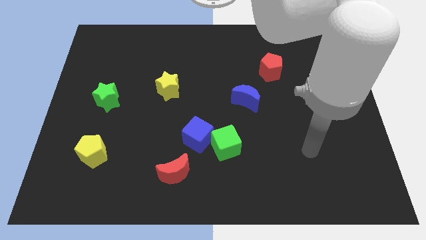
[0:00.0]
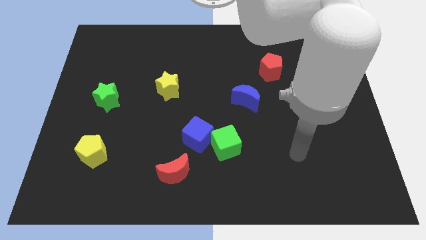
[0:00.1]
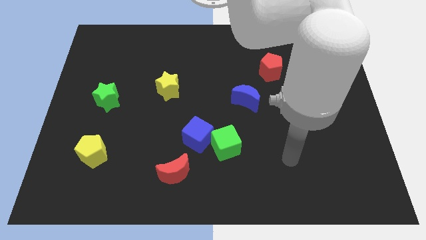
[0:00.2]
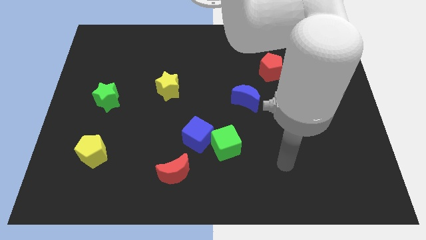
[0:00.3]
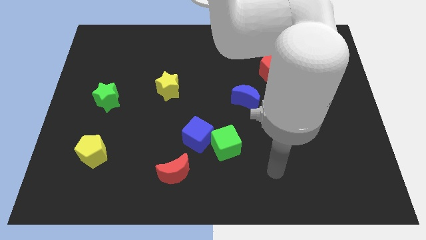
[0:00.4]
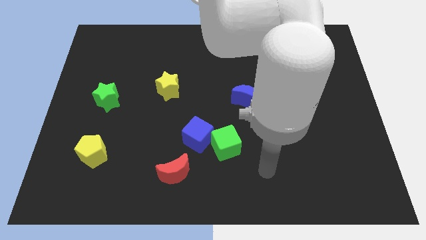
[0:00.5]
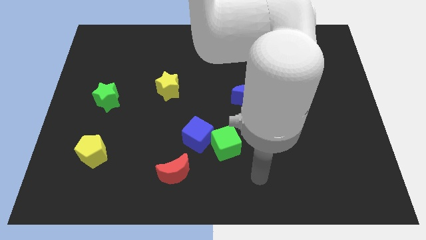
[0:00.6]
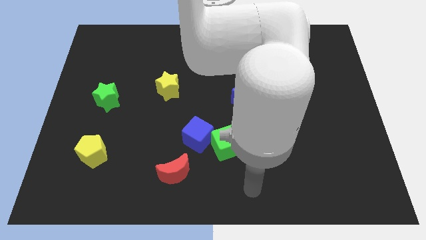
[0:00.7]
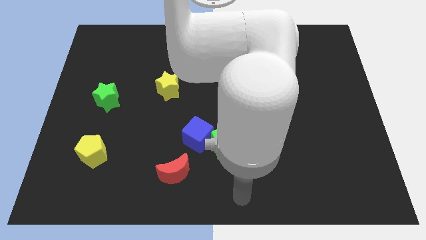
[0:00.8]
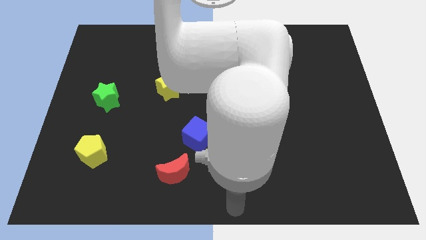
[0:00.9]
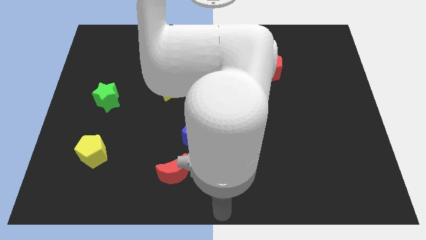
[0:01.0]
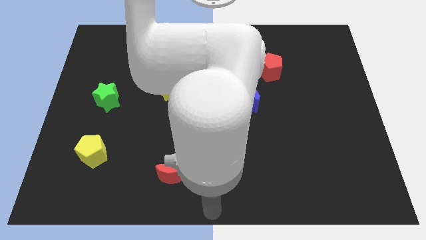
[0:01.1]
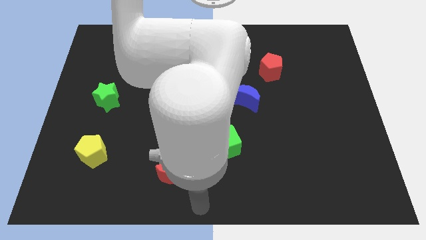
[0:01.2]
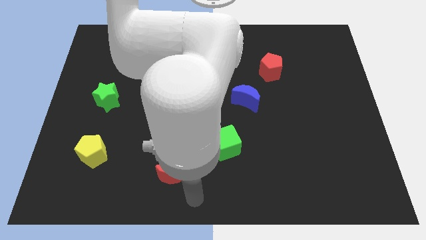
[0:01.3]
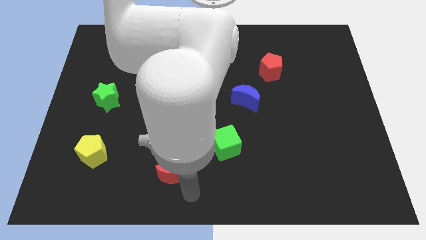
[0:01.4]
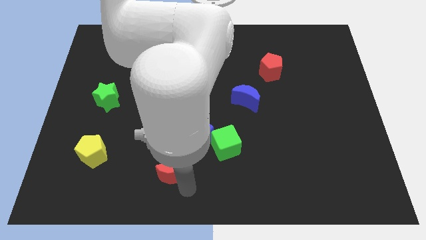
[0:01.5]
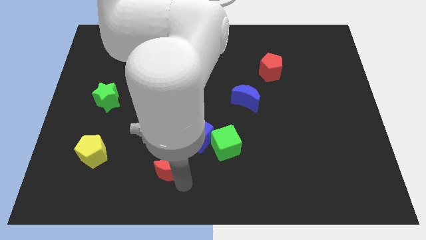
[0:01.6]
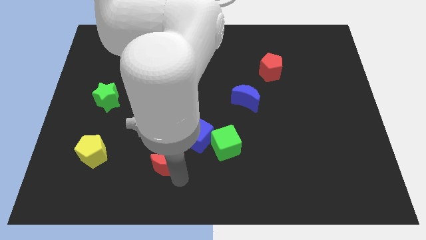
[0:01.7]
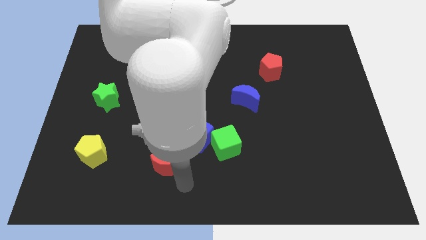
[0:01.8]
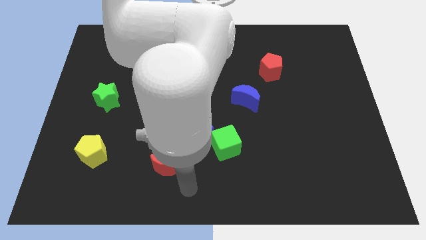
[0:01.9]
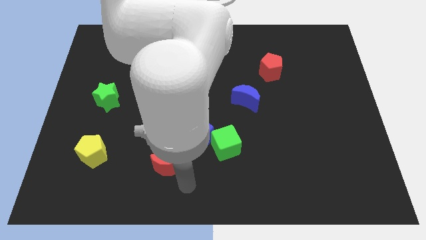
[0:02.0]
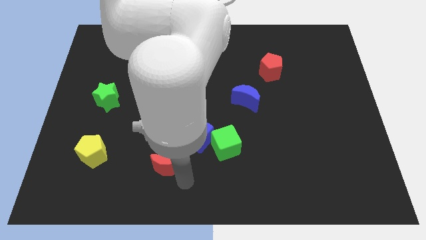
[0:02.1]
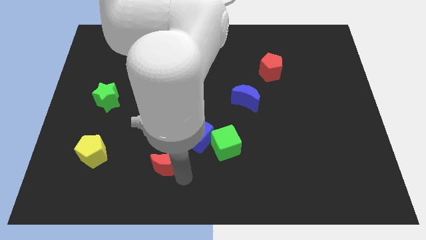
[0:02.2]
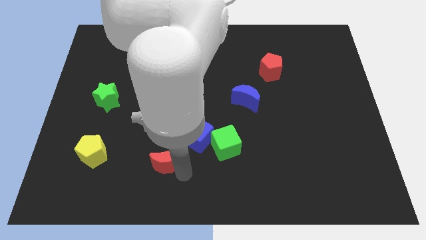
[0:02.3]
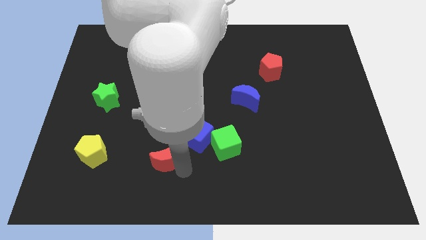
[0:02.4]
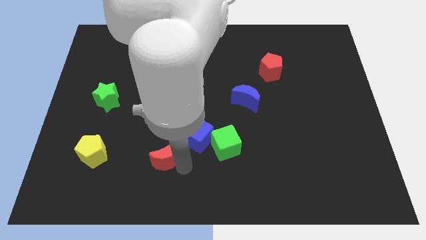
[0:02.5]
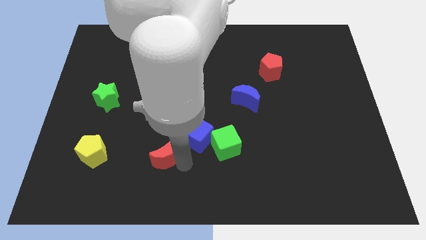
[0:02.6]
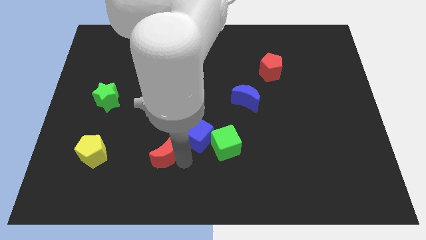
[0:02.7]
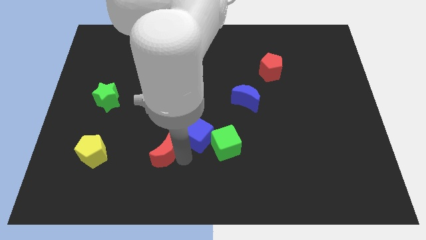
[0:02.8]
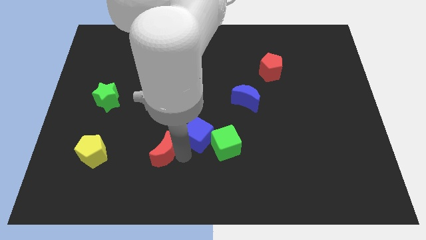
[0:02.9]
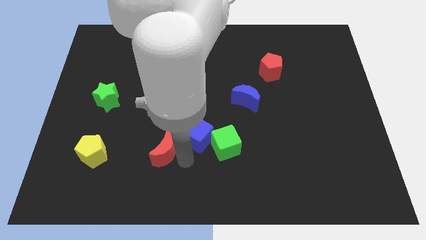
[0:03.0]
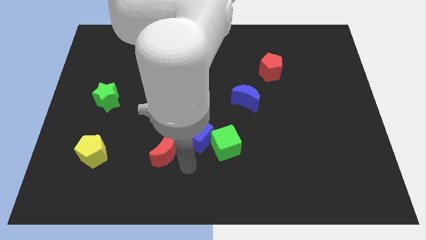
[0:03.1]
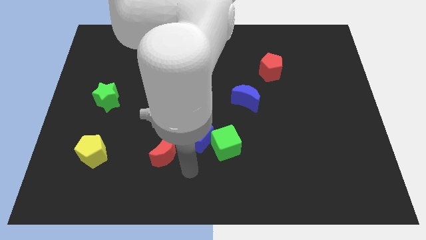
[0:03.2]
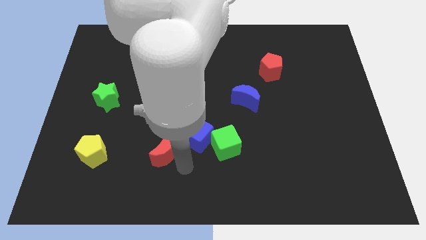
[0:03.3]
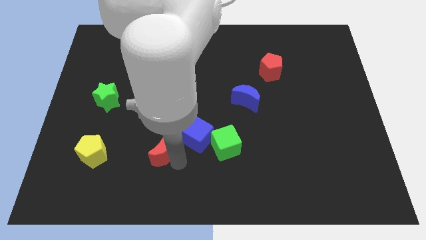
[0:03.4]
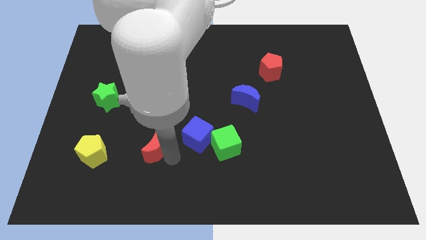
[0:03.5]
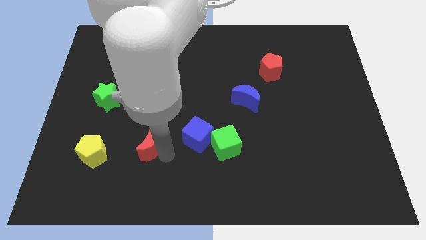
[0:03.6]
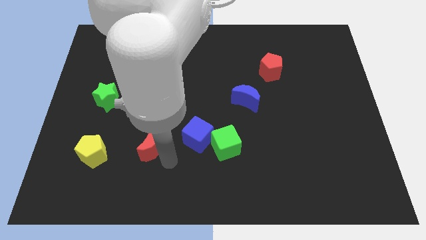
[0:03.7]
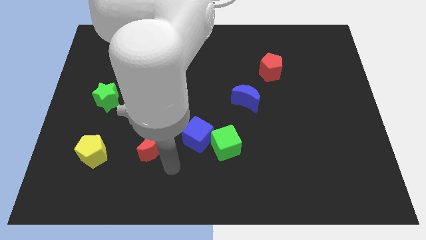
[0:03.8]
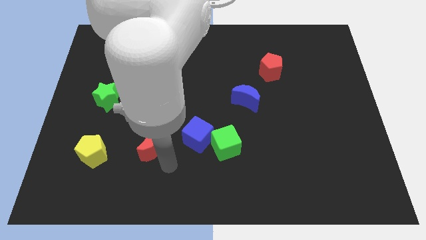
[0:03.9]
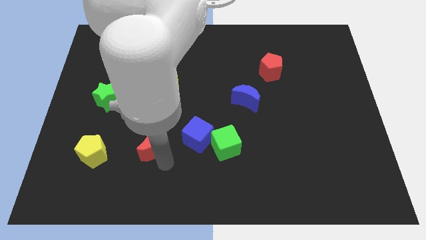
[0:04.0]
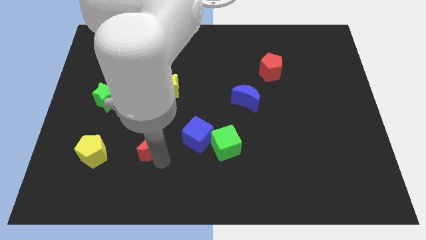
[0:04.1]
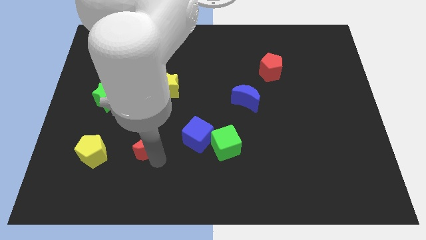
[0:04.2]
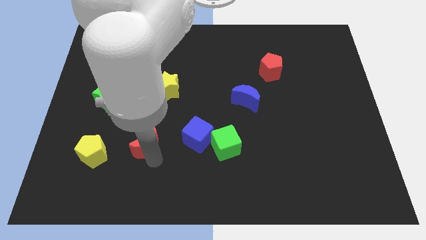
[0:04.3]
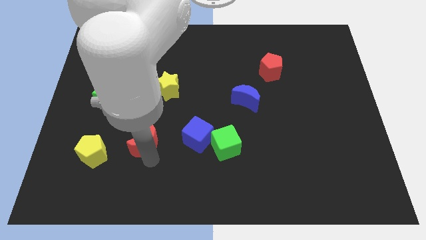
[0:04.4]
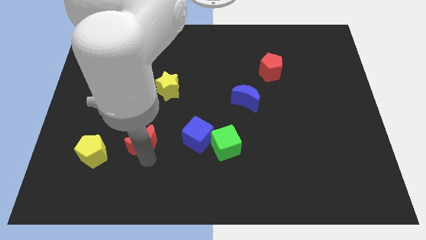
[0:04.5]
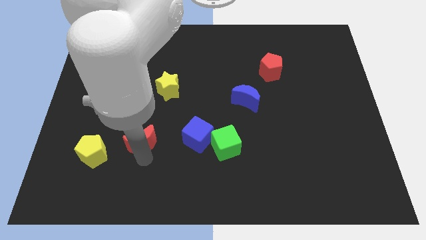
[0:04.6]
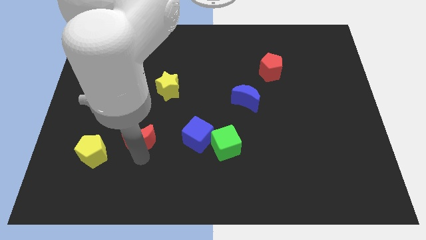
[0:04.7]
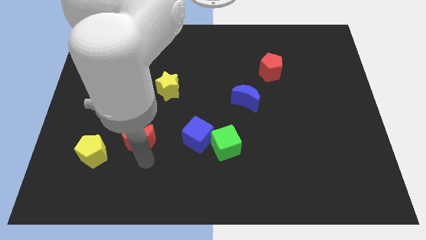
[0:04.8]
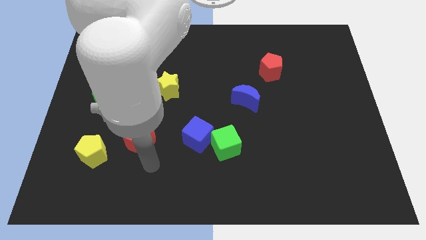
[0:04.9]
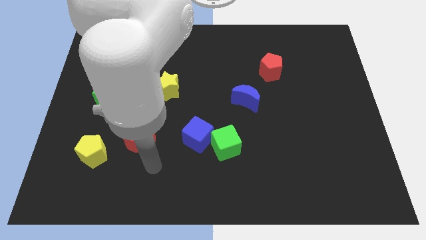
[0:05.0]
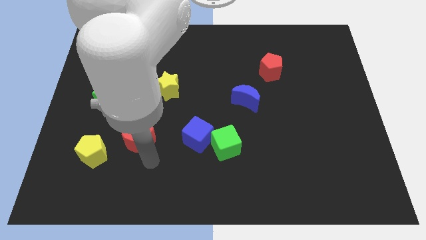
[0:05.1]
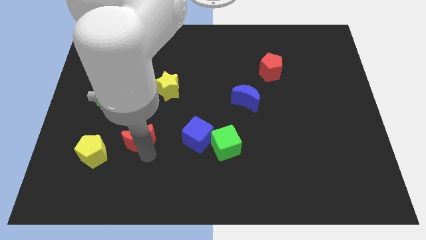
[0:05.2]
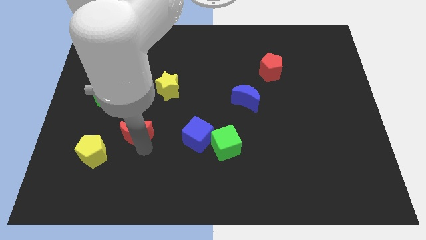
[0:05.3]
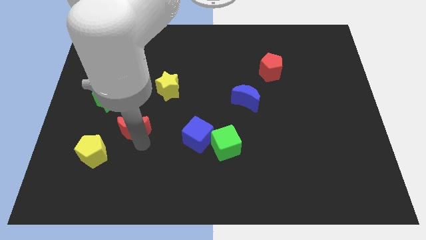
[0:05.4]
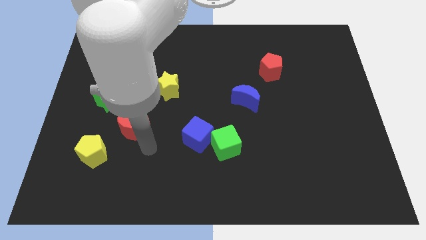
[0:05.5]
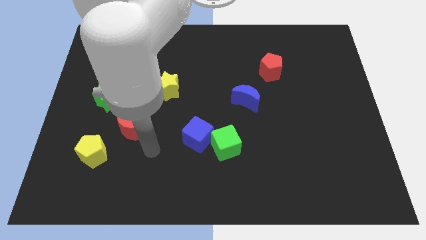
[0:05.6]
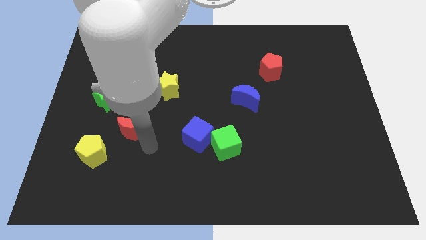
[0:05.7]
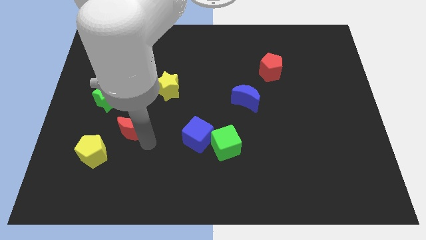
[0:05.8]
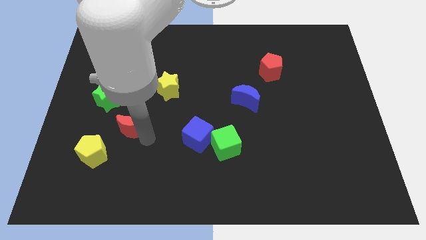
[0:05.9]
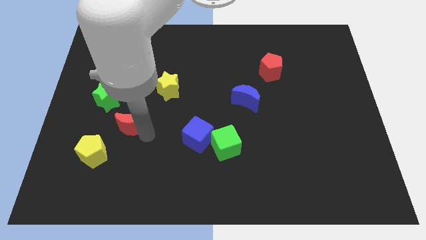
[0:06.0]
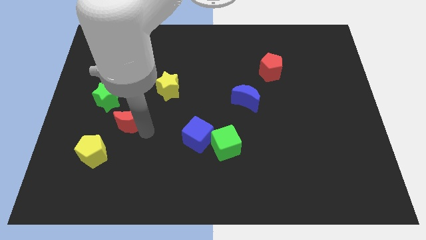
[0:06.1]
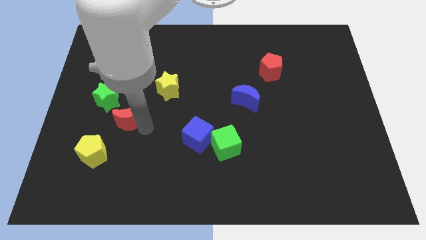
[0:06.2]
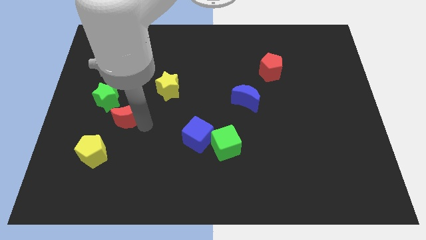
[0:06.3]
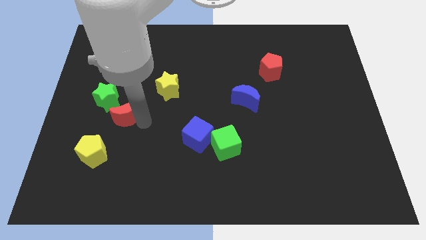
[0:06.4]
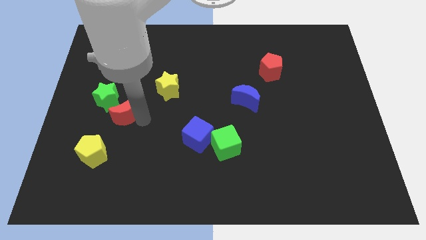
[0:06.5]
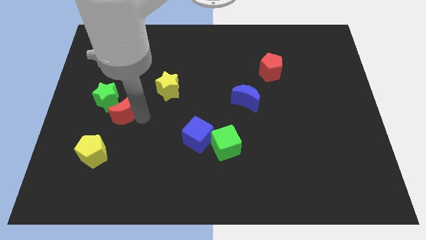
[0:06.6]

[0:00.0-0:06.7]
slide the red moon towards the green star

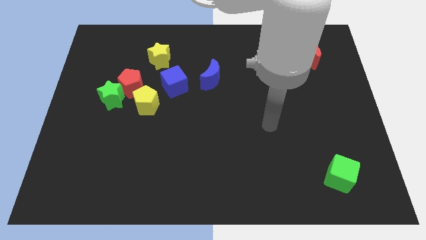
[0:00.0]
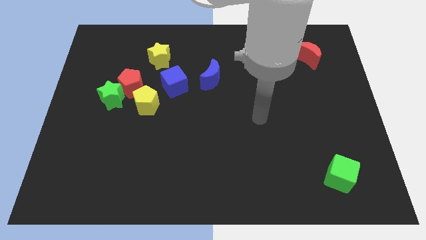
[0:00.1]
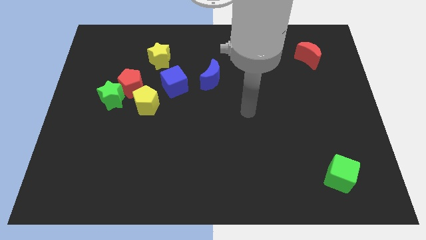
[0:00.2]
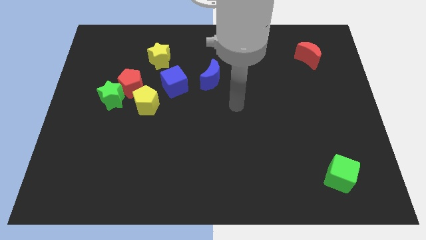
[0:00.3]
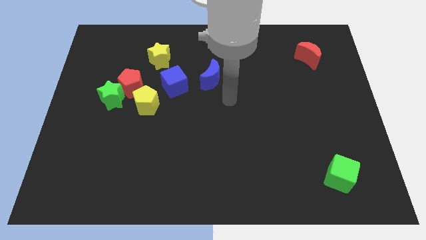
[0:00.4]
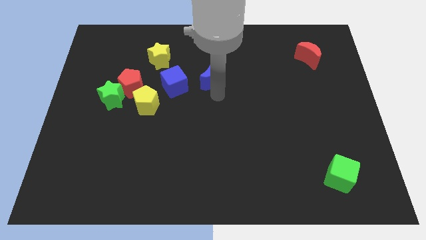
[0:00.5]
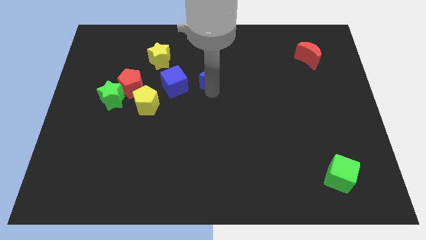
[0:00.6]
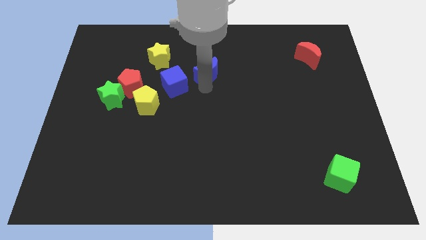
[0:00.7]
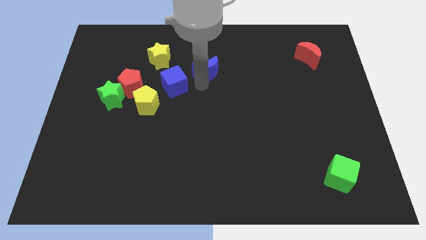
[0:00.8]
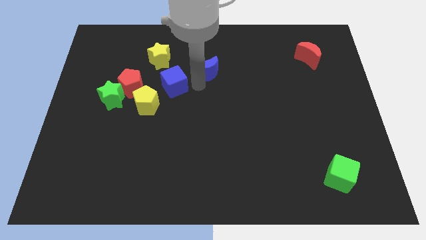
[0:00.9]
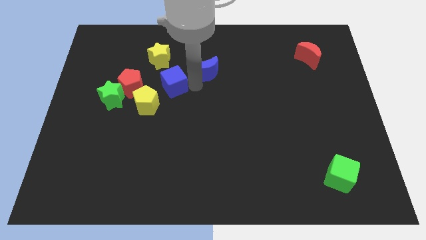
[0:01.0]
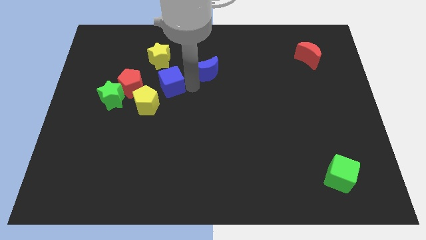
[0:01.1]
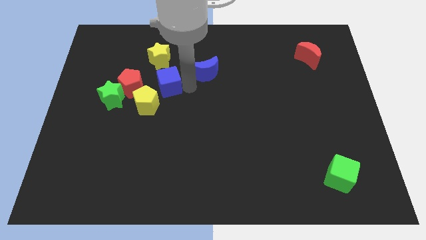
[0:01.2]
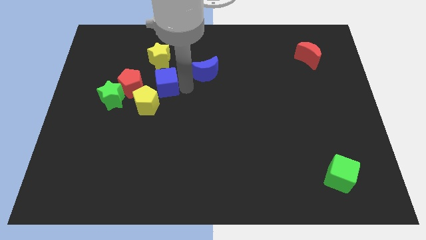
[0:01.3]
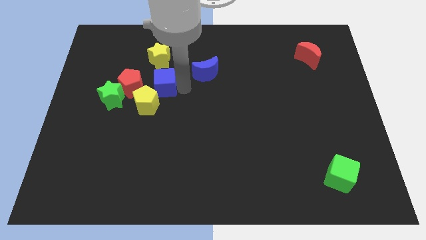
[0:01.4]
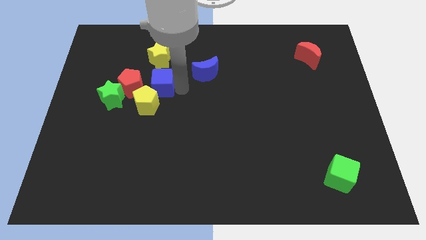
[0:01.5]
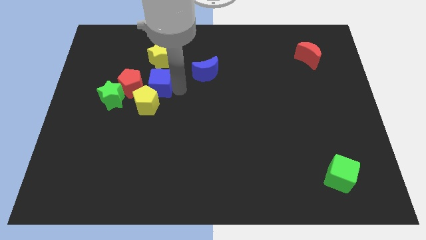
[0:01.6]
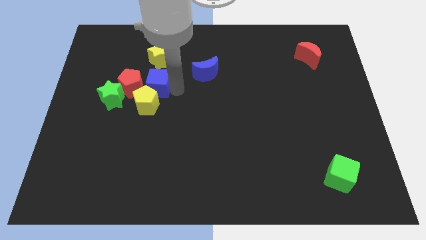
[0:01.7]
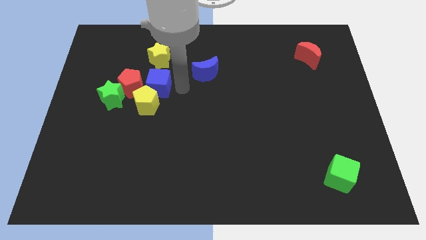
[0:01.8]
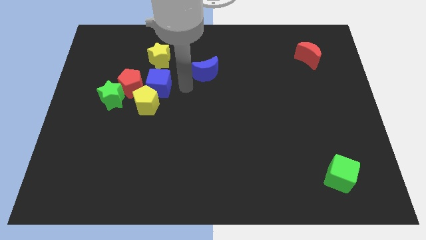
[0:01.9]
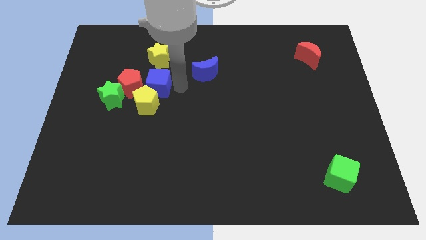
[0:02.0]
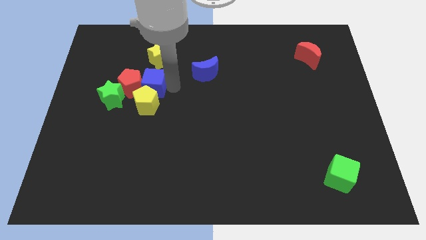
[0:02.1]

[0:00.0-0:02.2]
slide the blue cube close to the red pentagon
